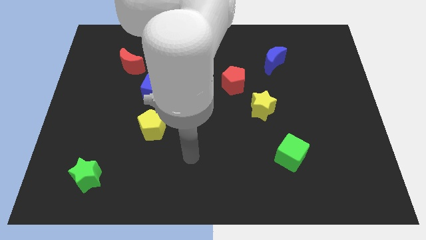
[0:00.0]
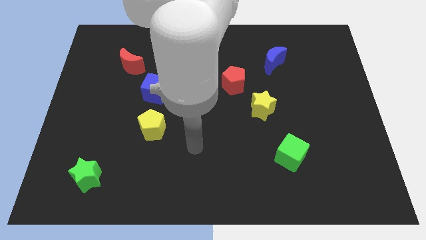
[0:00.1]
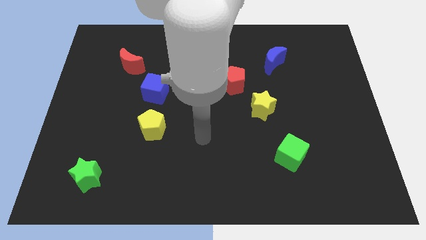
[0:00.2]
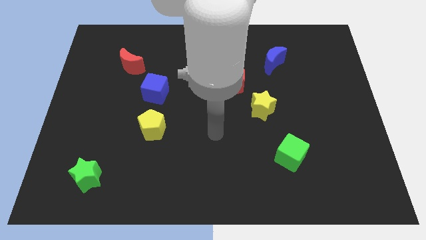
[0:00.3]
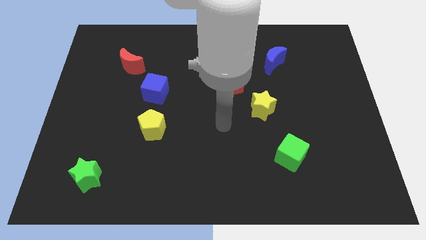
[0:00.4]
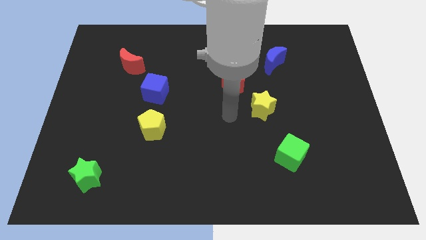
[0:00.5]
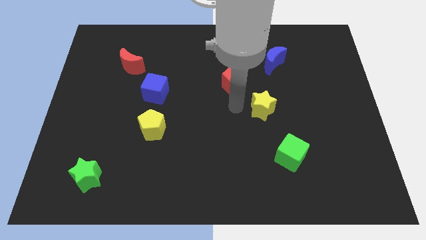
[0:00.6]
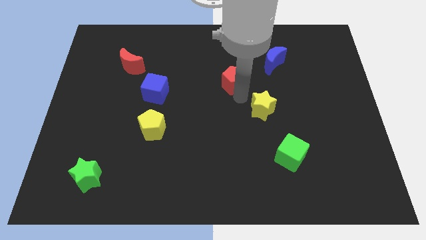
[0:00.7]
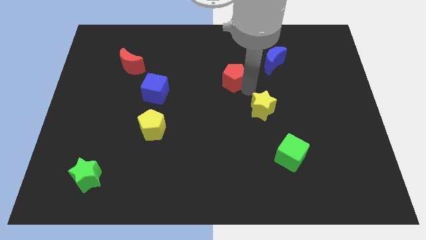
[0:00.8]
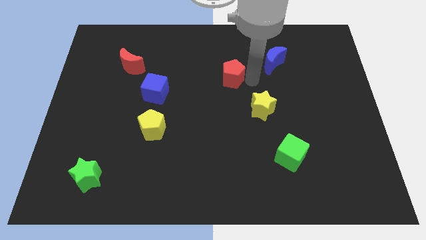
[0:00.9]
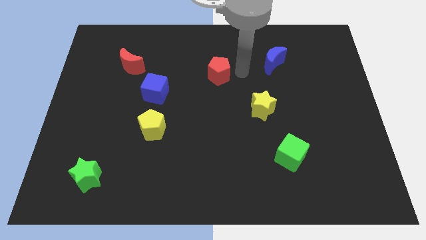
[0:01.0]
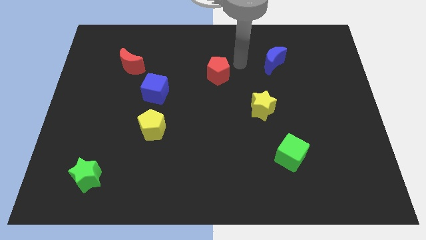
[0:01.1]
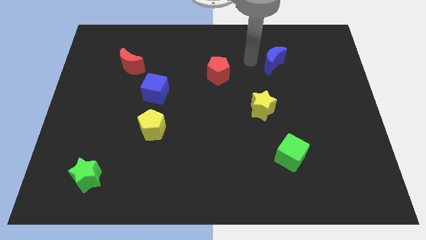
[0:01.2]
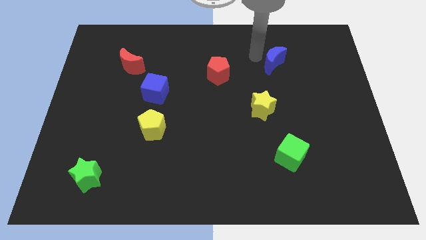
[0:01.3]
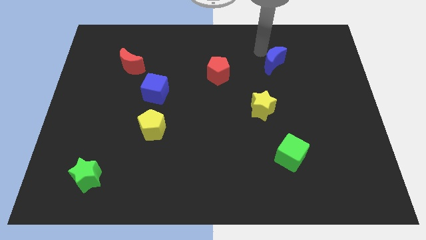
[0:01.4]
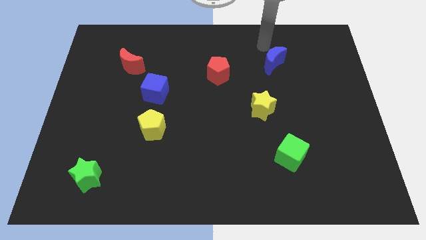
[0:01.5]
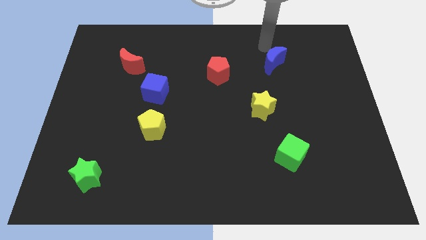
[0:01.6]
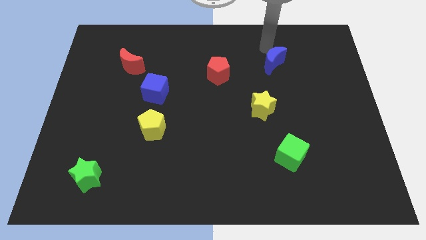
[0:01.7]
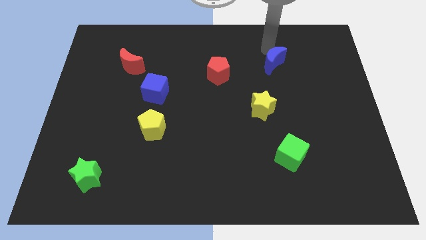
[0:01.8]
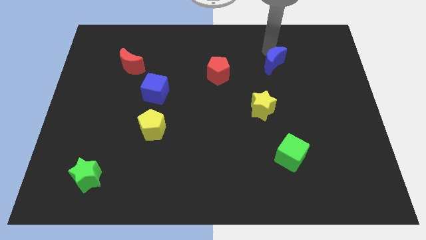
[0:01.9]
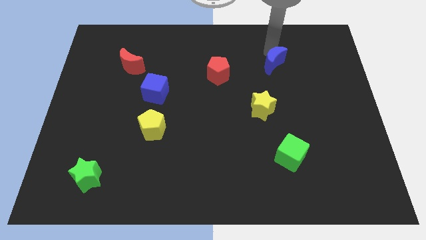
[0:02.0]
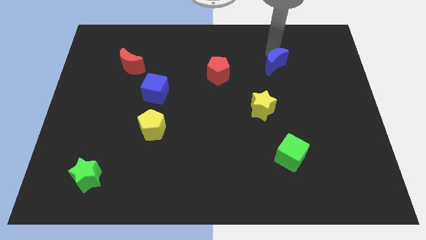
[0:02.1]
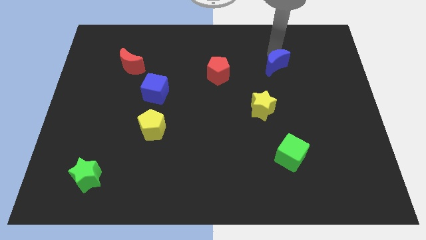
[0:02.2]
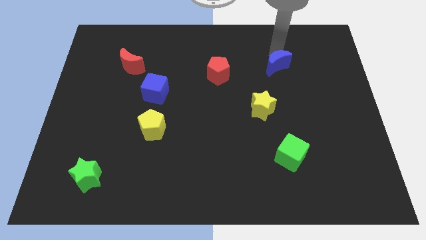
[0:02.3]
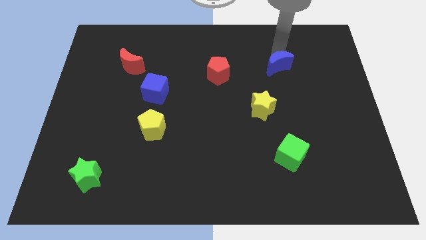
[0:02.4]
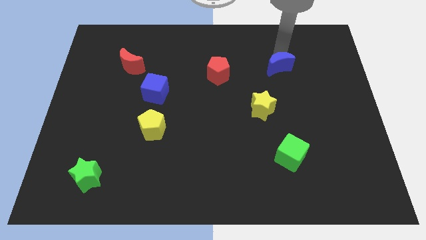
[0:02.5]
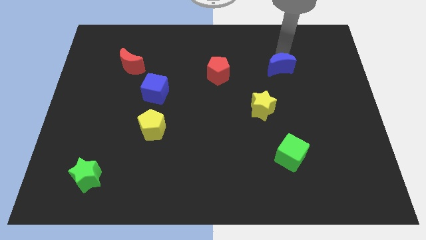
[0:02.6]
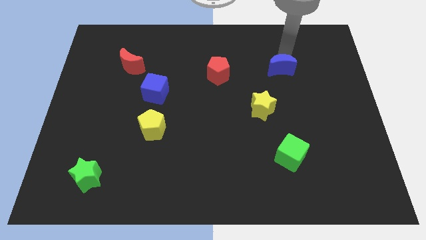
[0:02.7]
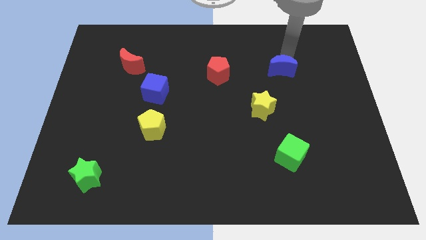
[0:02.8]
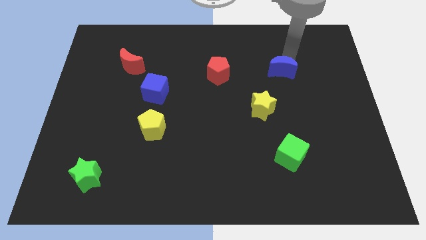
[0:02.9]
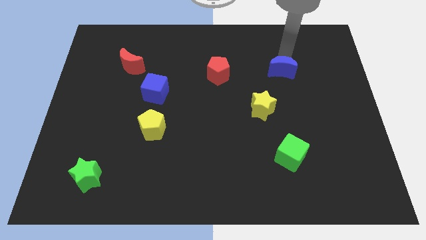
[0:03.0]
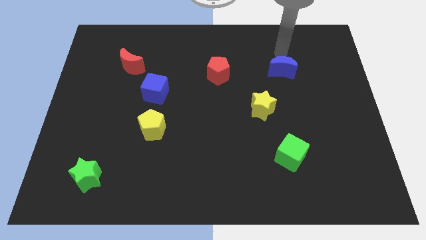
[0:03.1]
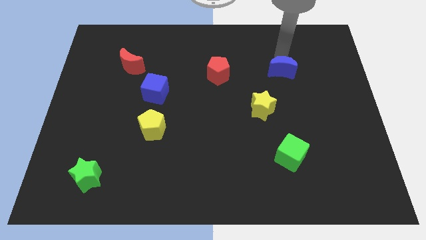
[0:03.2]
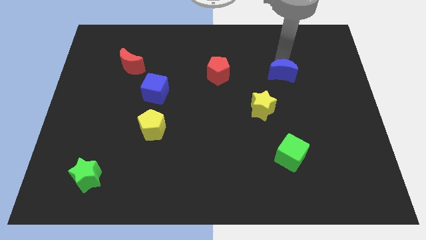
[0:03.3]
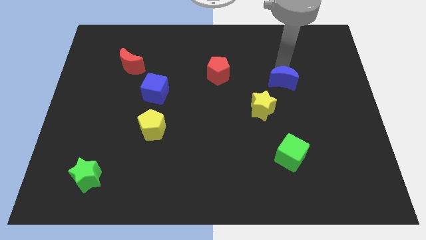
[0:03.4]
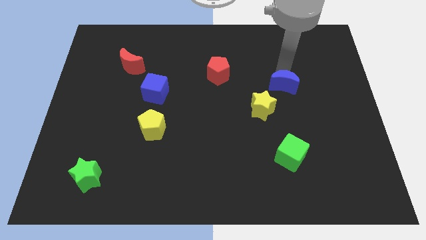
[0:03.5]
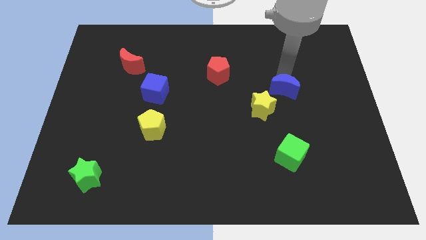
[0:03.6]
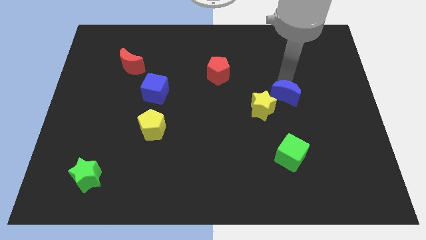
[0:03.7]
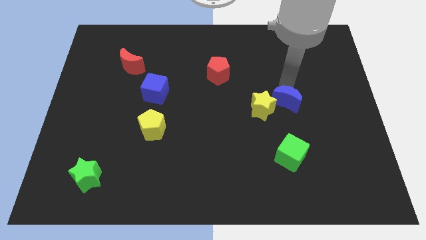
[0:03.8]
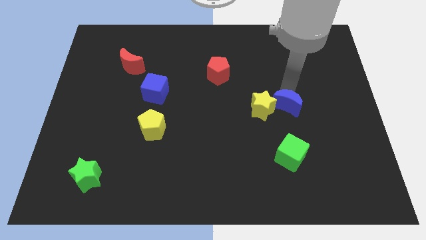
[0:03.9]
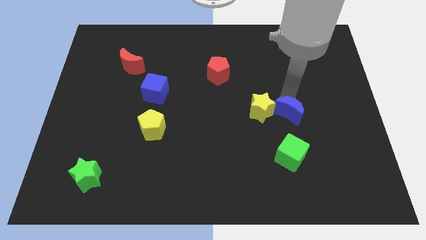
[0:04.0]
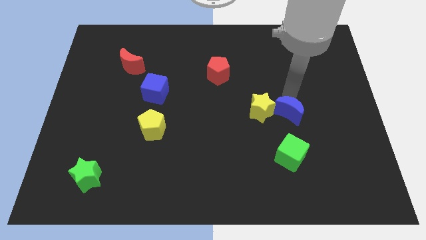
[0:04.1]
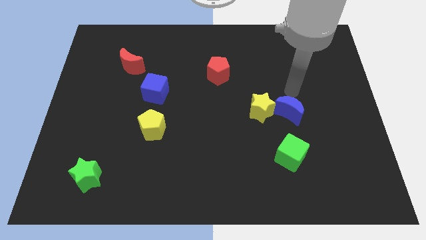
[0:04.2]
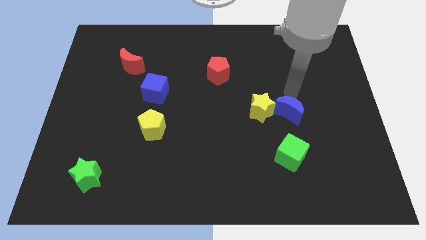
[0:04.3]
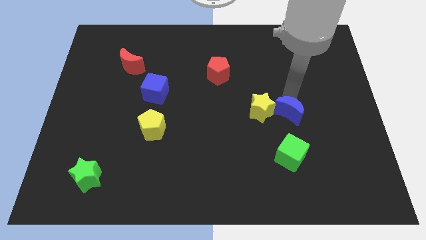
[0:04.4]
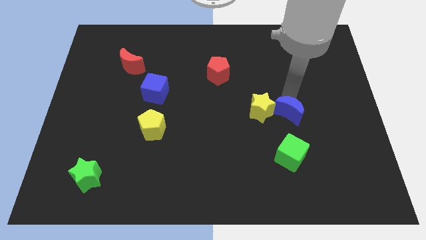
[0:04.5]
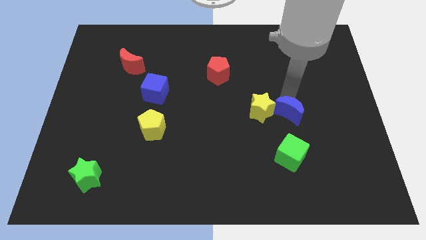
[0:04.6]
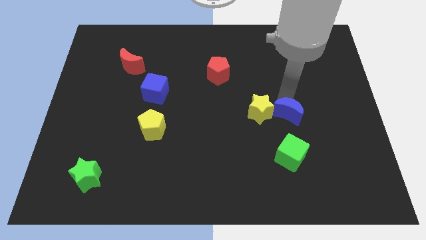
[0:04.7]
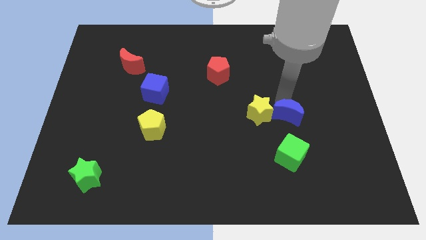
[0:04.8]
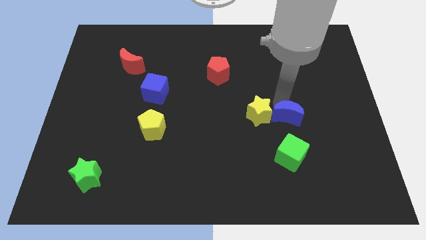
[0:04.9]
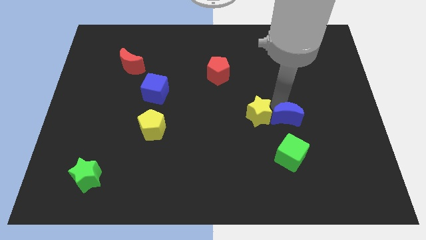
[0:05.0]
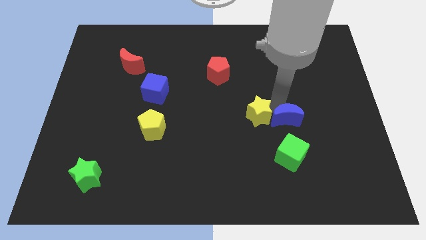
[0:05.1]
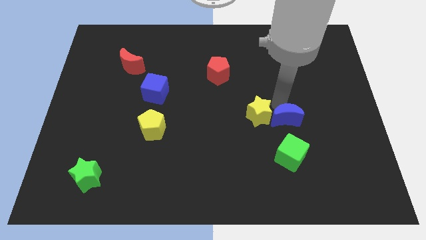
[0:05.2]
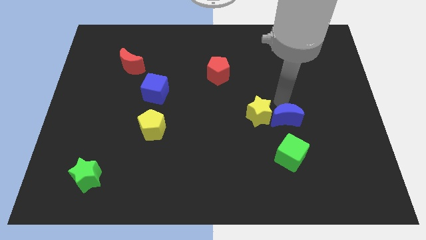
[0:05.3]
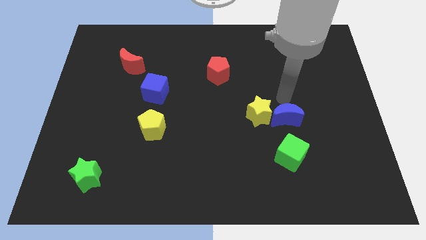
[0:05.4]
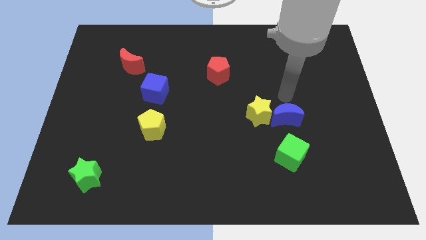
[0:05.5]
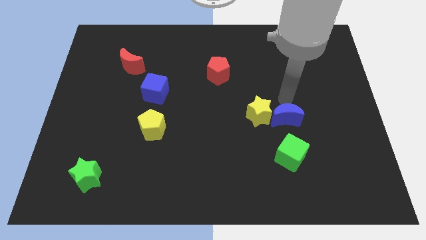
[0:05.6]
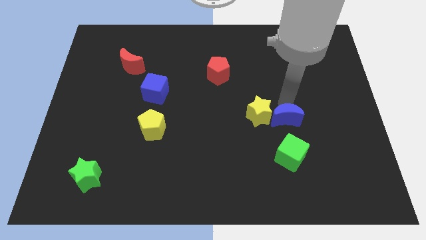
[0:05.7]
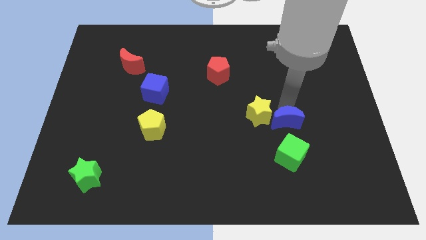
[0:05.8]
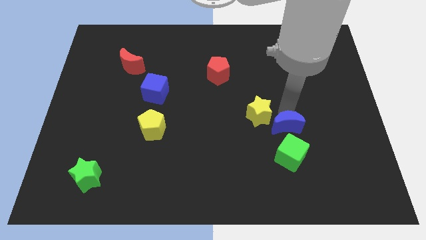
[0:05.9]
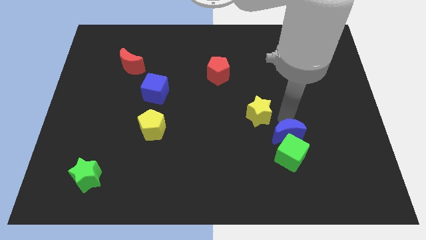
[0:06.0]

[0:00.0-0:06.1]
push the blue moon close to the green cube

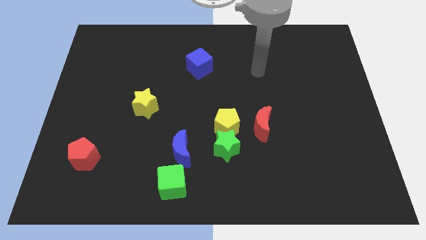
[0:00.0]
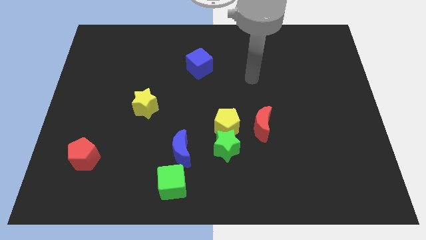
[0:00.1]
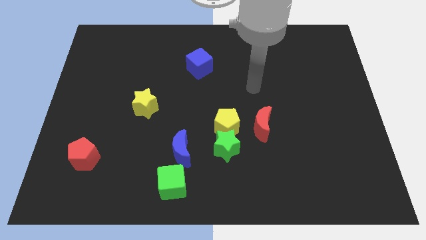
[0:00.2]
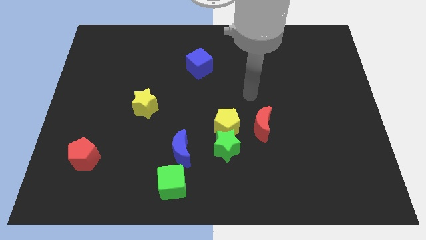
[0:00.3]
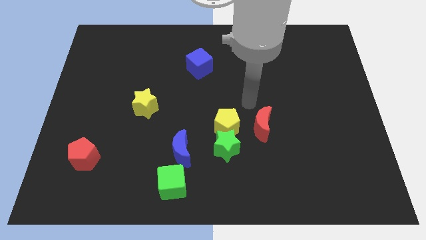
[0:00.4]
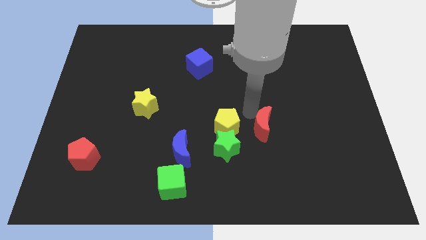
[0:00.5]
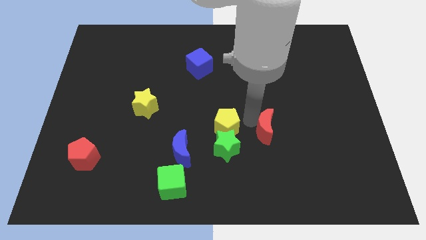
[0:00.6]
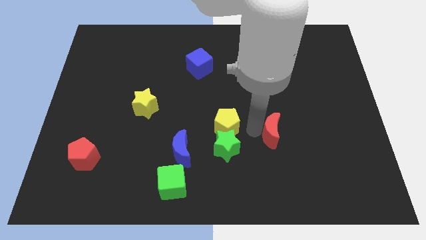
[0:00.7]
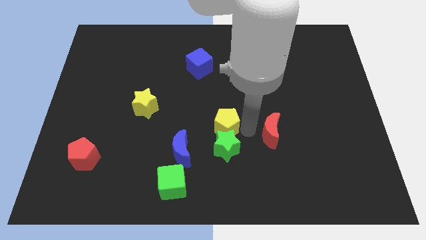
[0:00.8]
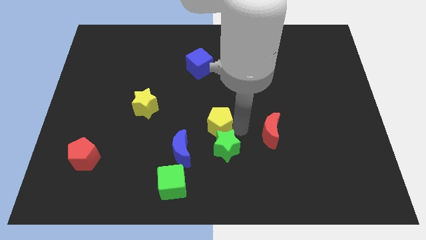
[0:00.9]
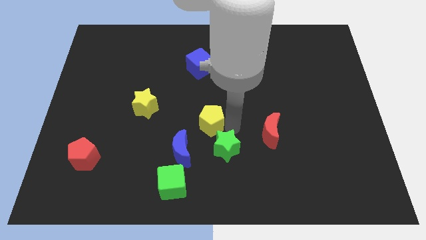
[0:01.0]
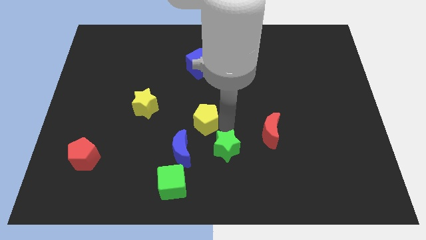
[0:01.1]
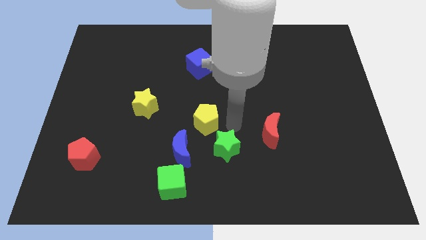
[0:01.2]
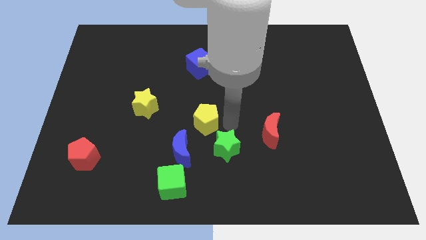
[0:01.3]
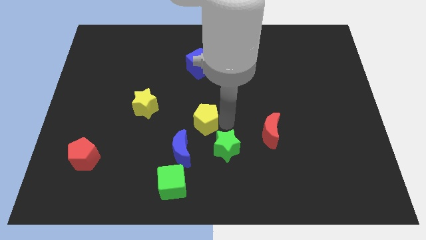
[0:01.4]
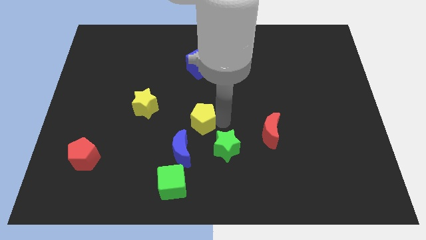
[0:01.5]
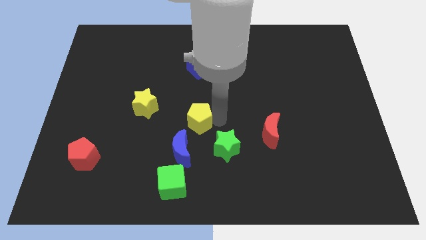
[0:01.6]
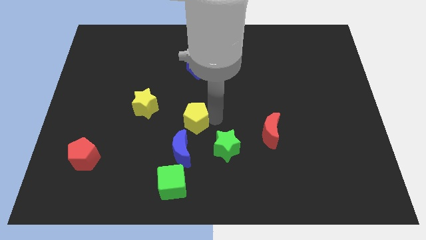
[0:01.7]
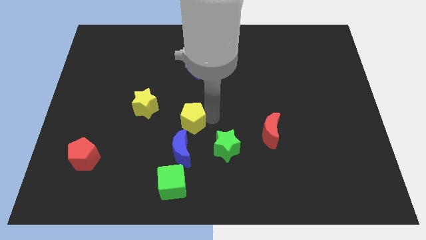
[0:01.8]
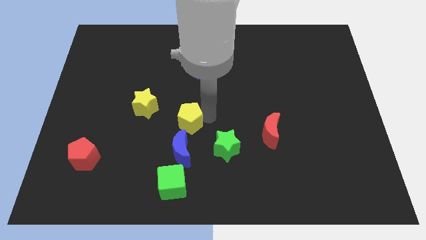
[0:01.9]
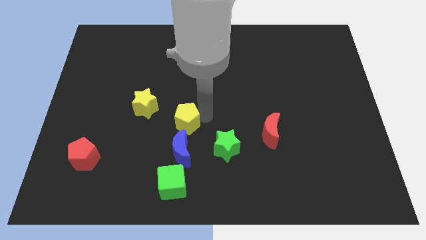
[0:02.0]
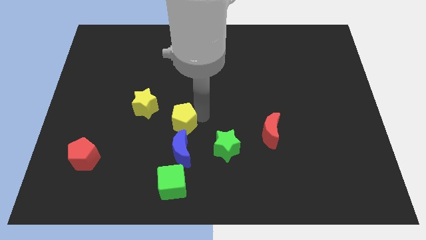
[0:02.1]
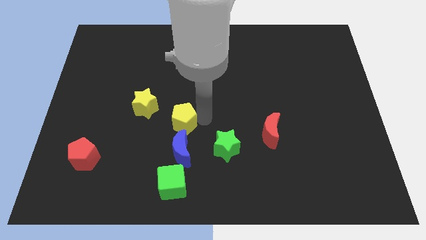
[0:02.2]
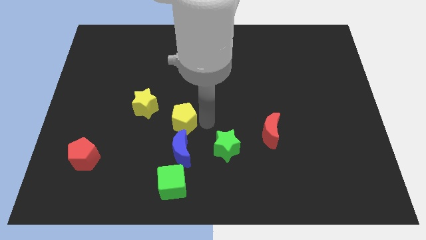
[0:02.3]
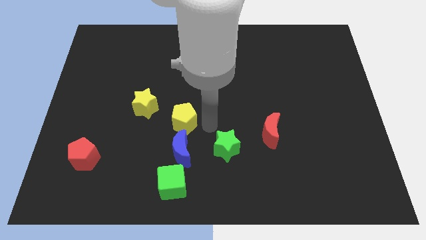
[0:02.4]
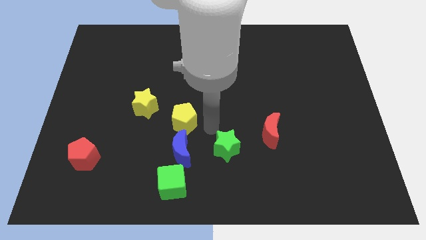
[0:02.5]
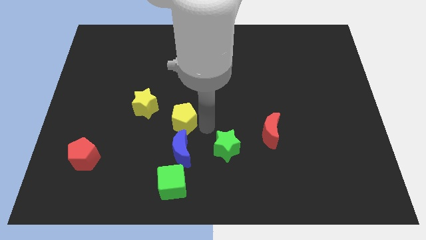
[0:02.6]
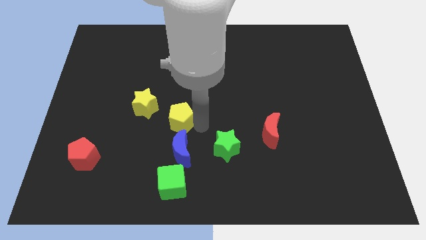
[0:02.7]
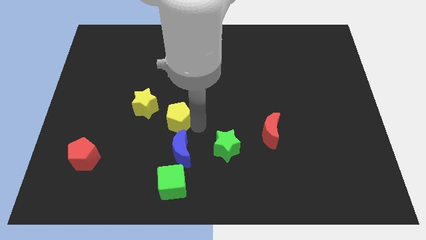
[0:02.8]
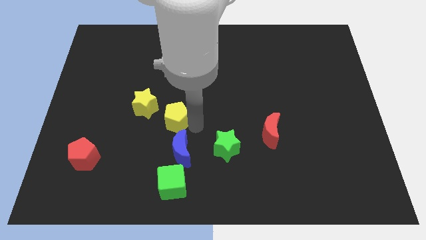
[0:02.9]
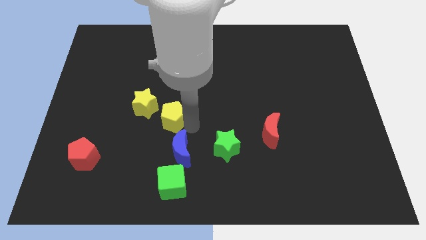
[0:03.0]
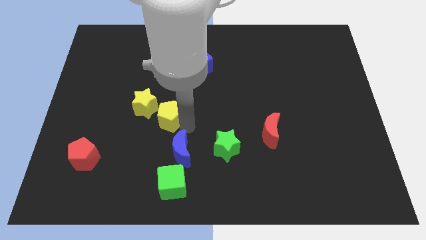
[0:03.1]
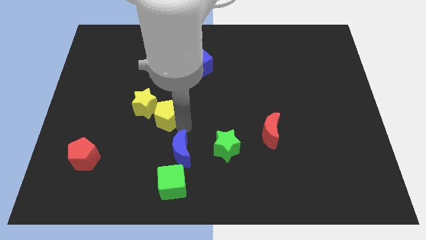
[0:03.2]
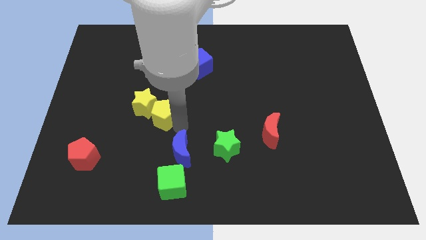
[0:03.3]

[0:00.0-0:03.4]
slide the yellow pentagon towards the yellow star
